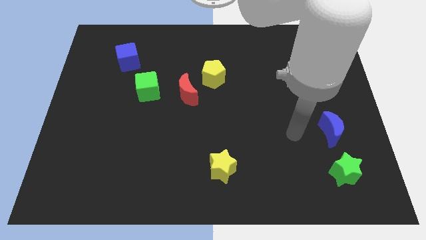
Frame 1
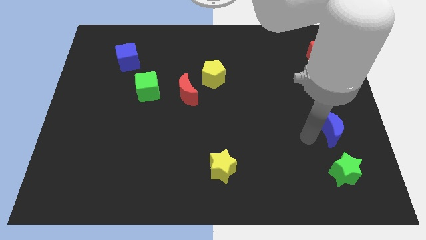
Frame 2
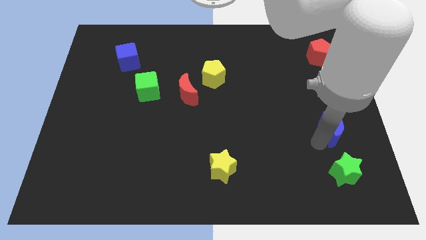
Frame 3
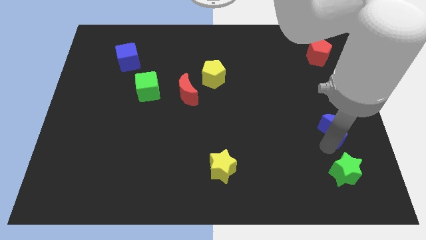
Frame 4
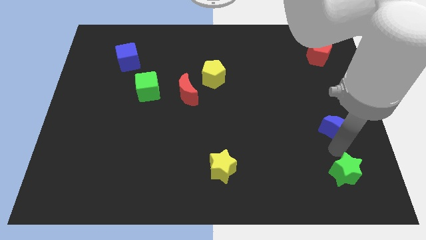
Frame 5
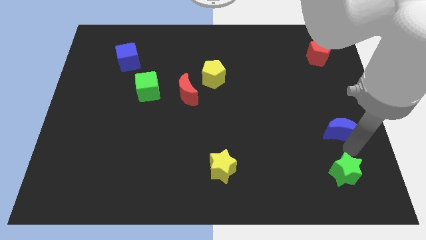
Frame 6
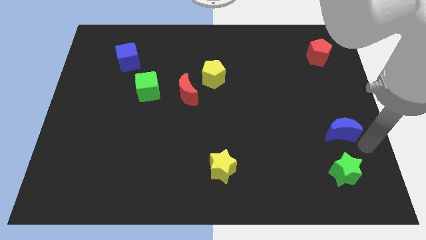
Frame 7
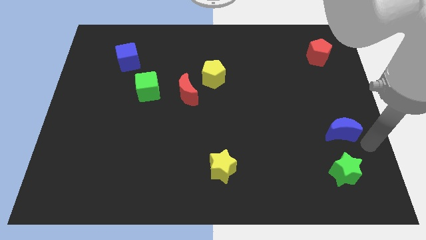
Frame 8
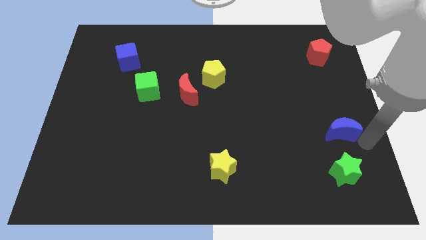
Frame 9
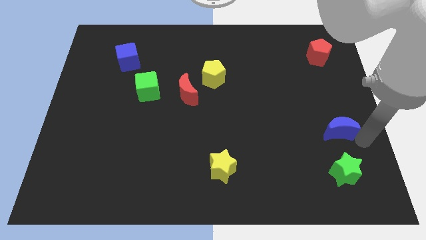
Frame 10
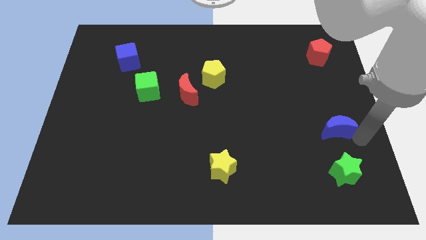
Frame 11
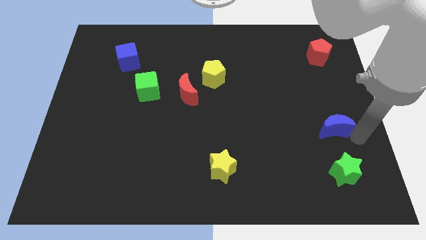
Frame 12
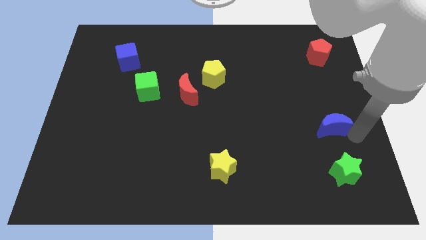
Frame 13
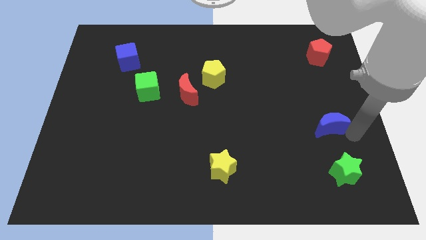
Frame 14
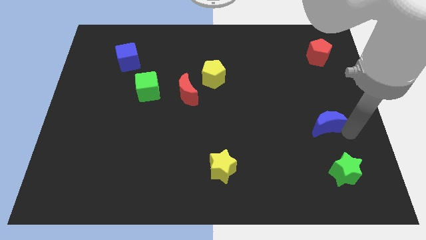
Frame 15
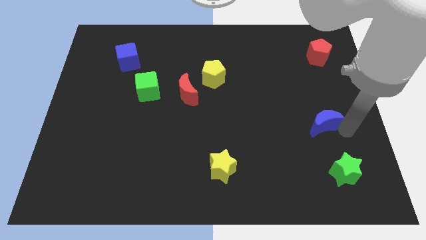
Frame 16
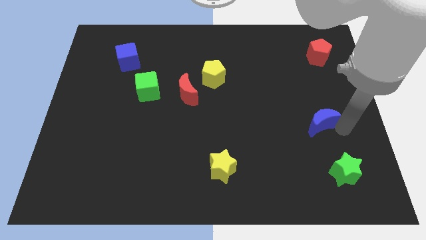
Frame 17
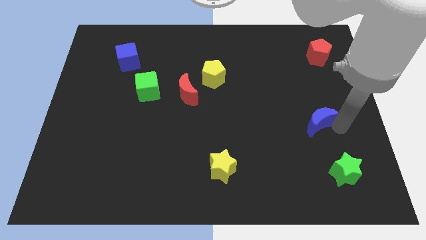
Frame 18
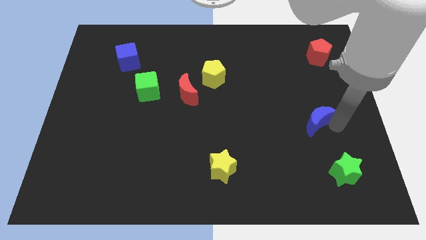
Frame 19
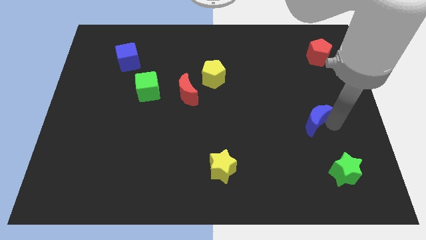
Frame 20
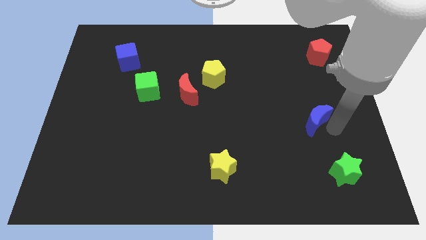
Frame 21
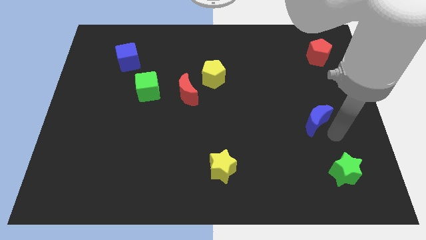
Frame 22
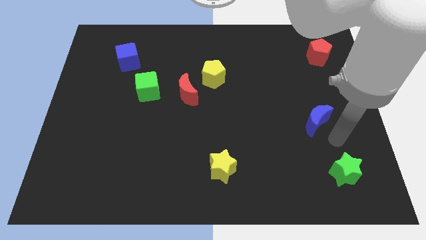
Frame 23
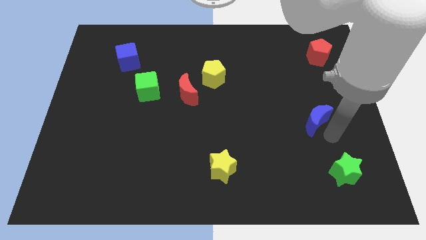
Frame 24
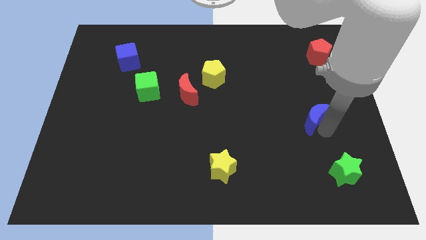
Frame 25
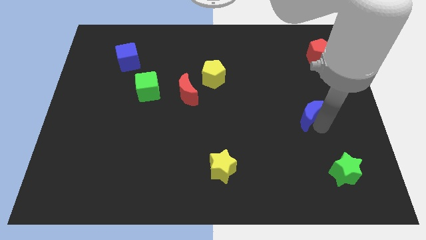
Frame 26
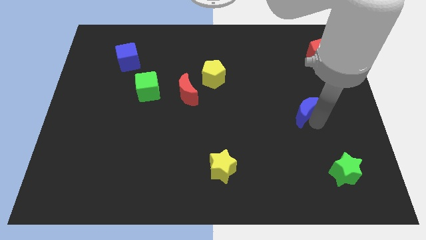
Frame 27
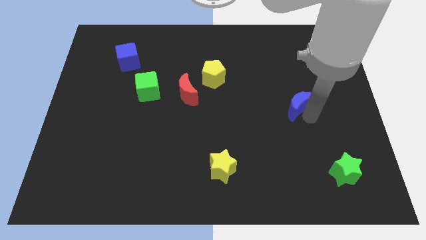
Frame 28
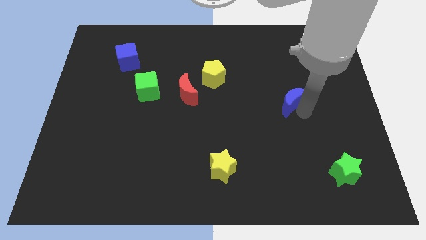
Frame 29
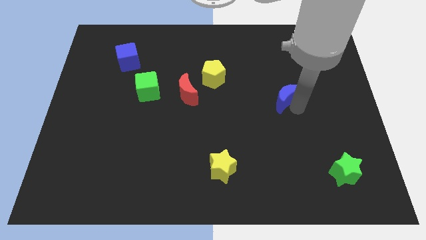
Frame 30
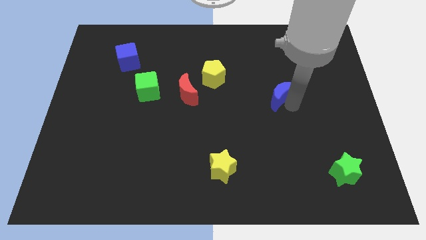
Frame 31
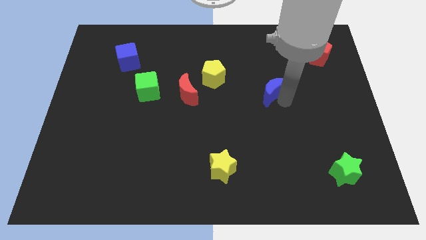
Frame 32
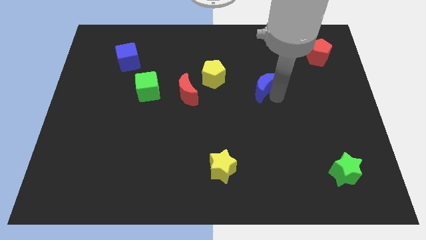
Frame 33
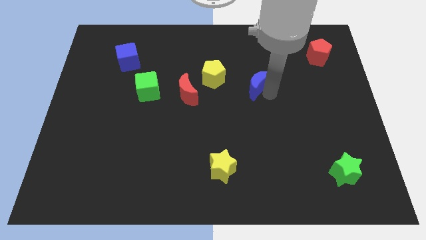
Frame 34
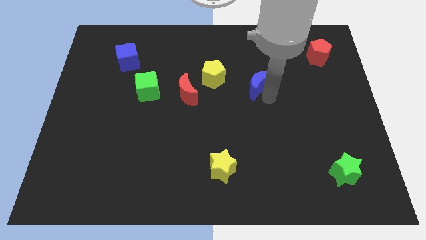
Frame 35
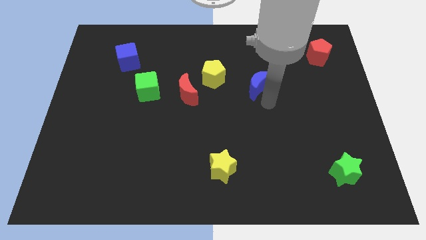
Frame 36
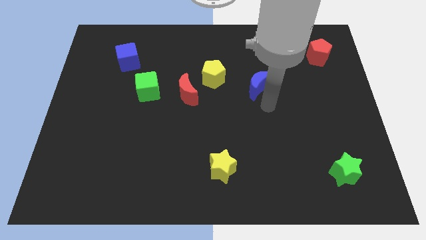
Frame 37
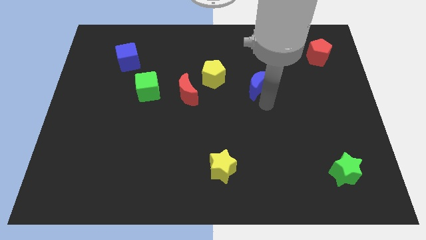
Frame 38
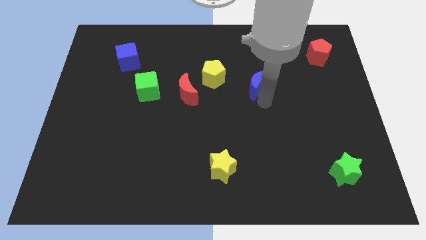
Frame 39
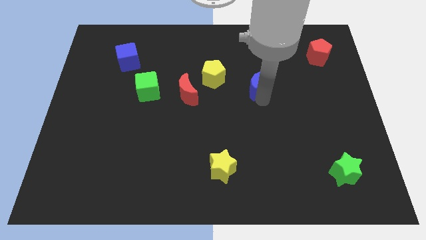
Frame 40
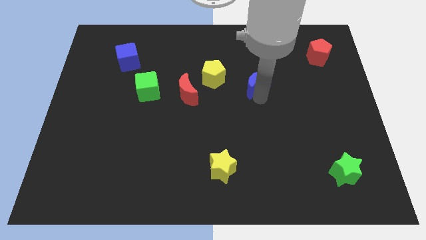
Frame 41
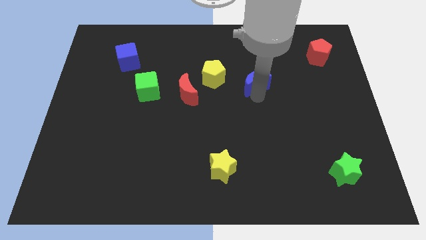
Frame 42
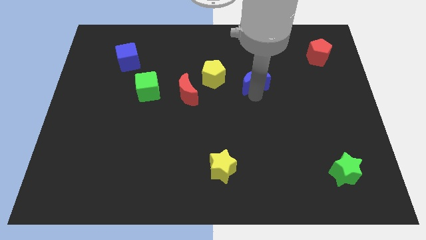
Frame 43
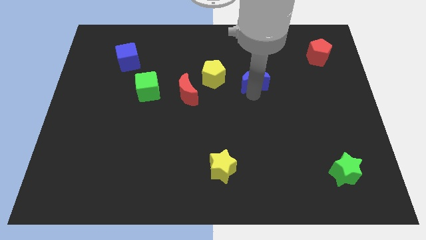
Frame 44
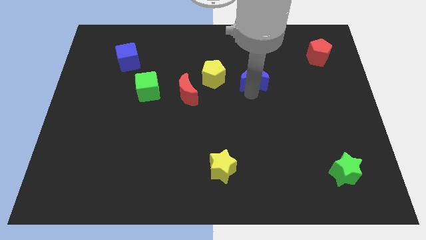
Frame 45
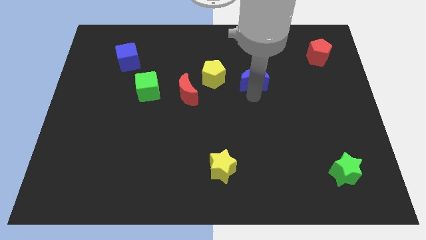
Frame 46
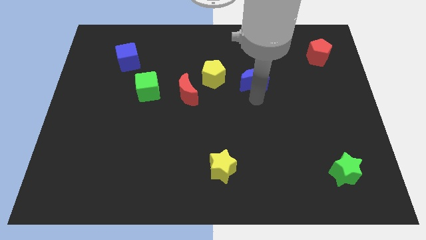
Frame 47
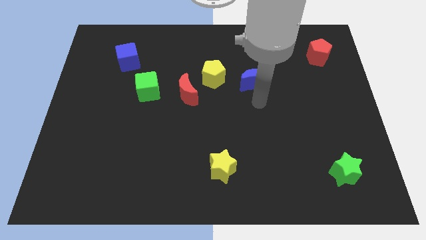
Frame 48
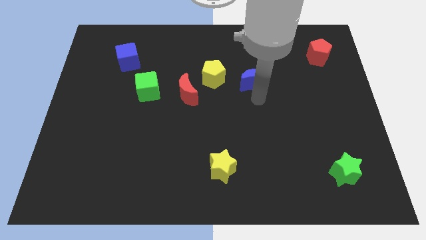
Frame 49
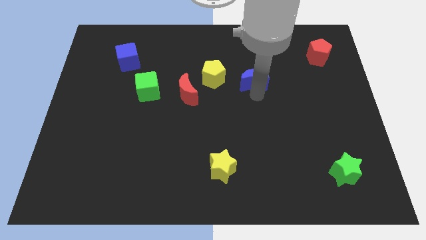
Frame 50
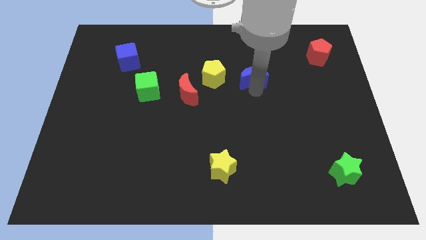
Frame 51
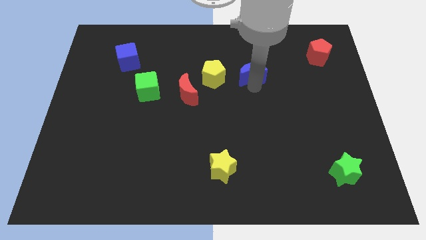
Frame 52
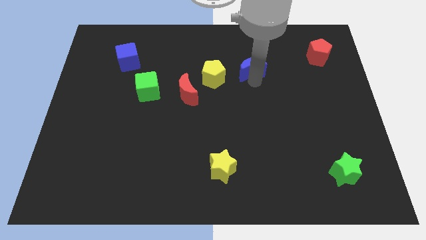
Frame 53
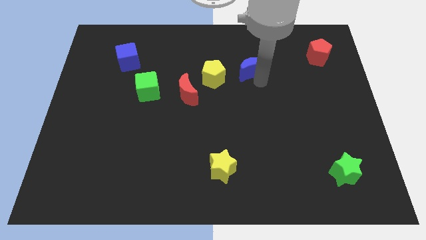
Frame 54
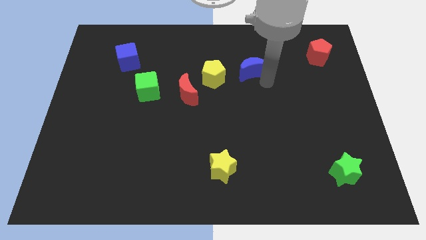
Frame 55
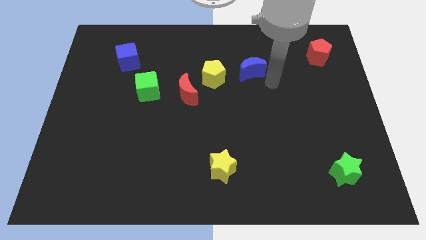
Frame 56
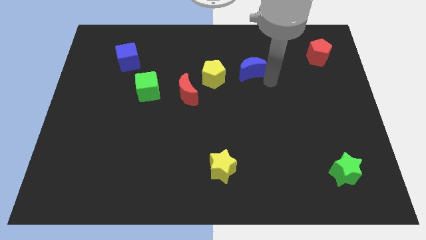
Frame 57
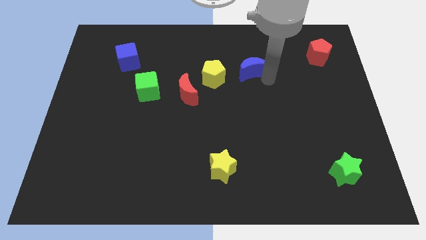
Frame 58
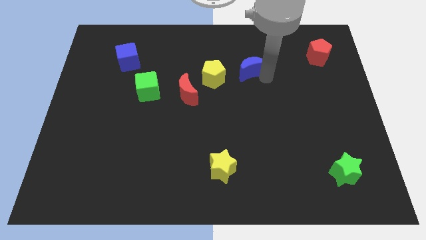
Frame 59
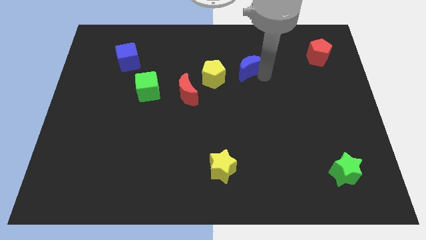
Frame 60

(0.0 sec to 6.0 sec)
slide the blue moon diagonally up and to the right of the yellow pentagon

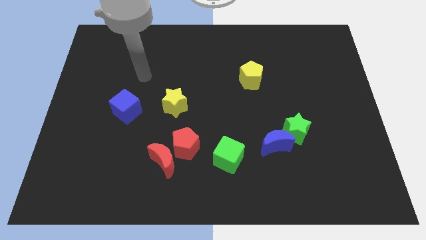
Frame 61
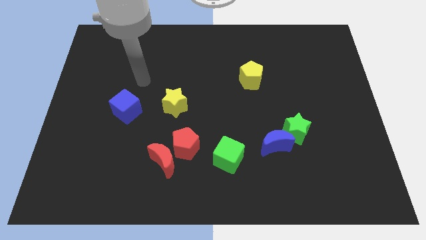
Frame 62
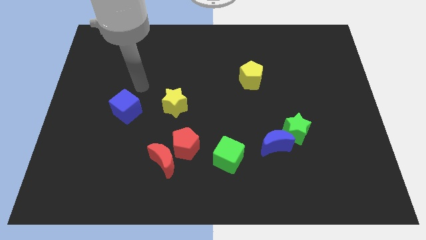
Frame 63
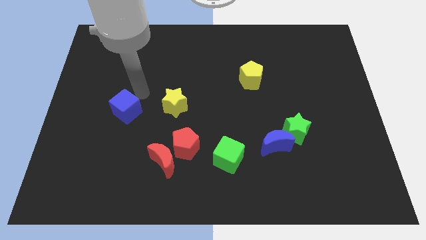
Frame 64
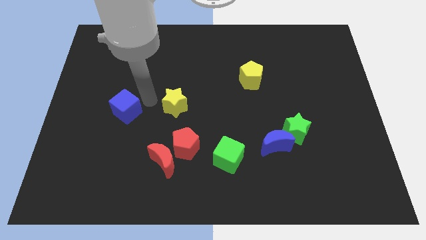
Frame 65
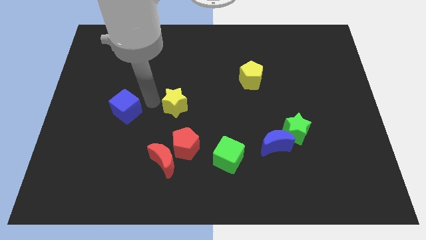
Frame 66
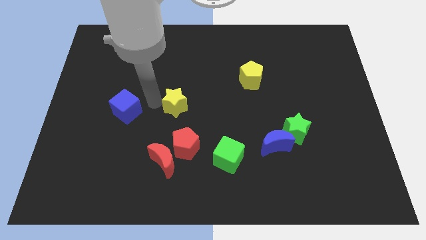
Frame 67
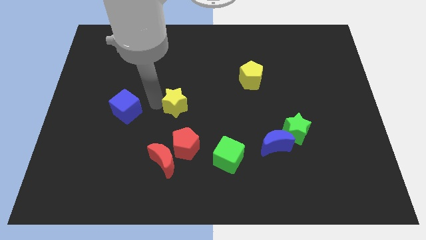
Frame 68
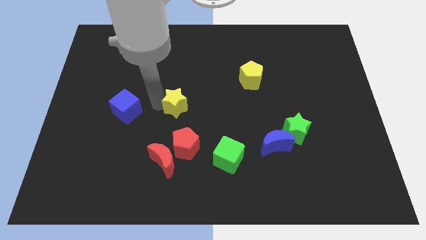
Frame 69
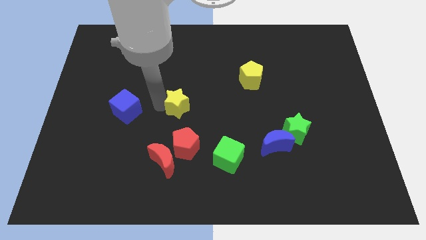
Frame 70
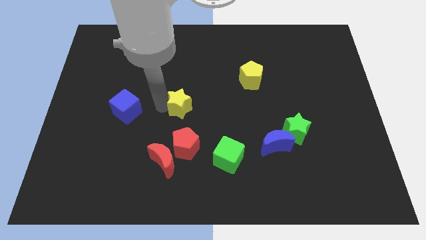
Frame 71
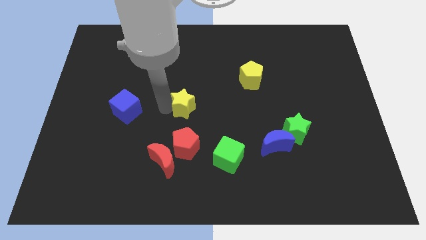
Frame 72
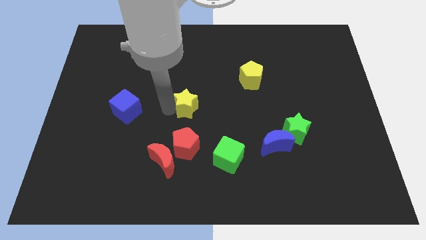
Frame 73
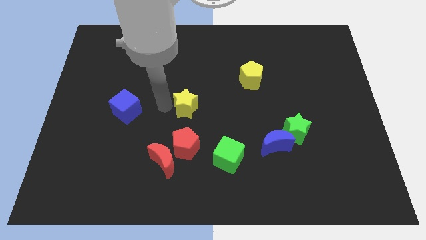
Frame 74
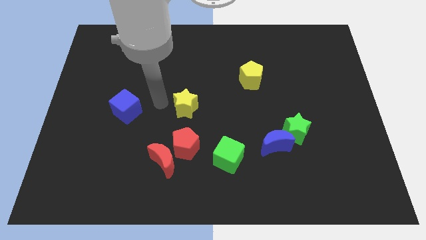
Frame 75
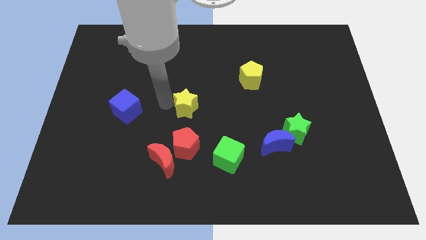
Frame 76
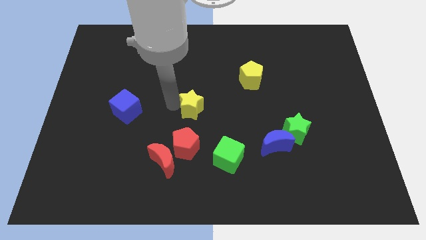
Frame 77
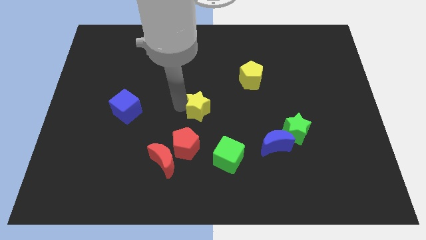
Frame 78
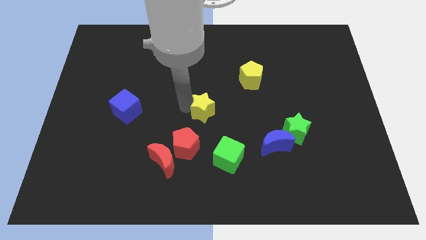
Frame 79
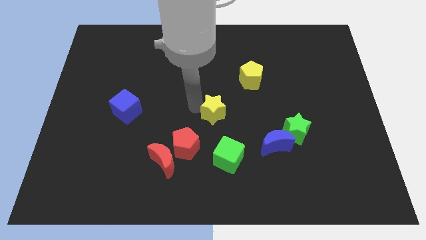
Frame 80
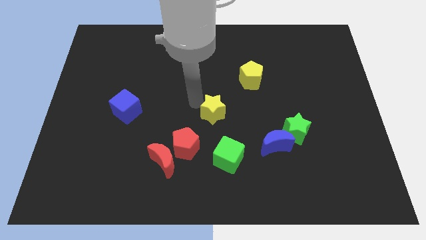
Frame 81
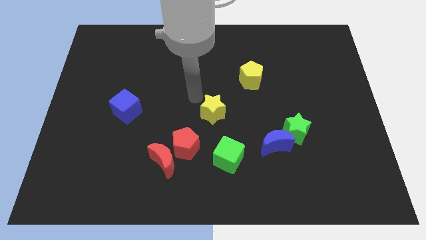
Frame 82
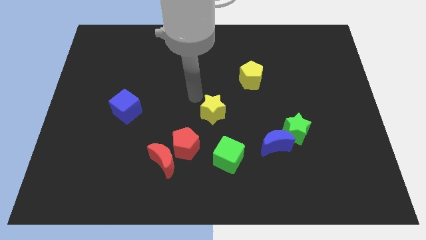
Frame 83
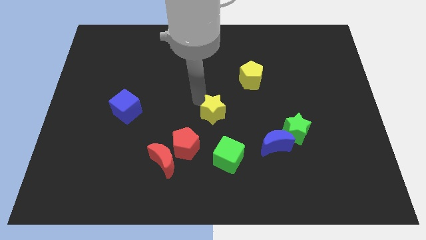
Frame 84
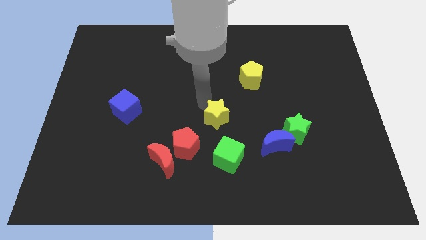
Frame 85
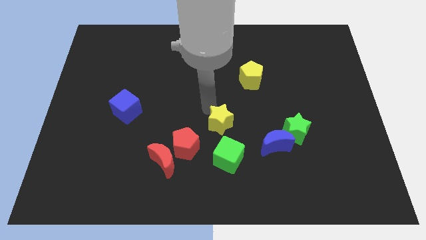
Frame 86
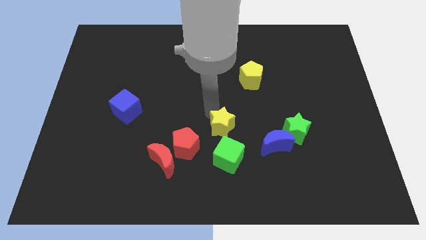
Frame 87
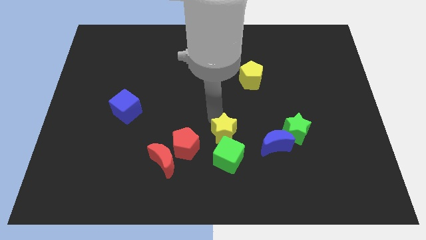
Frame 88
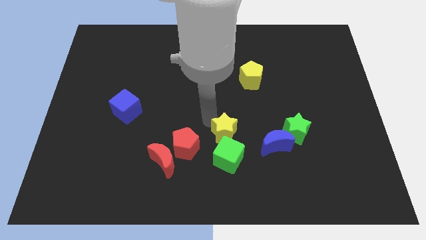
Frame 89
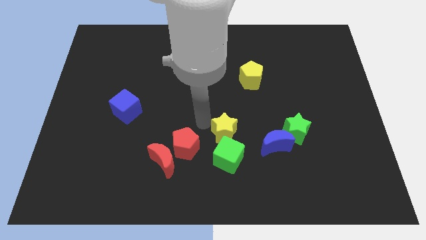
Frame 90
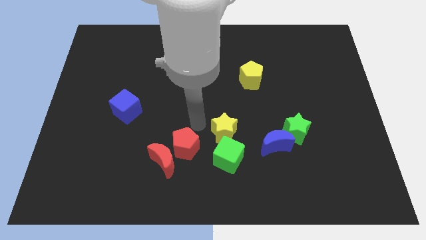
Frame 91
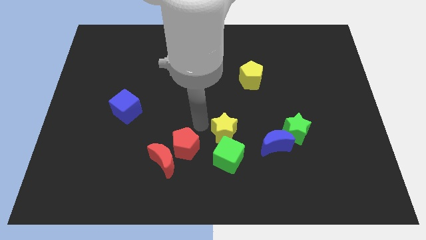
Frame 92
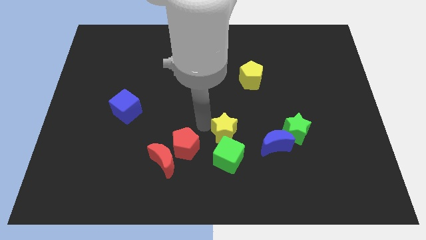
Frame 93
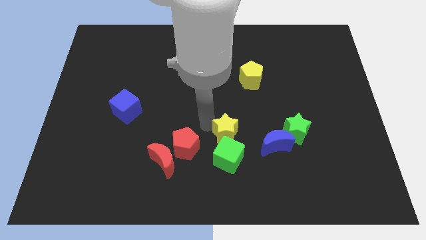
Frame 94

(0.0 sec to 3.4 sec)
slide the yellow star diagonally up and to the right of the green cube
